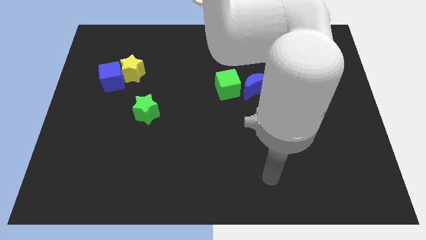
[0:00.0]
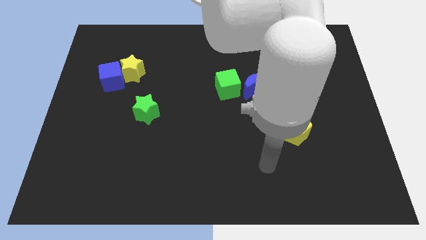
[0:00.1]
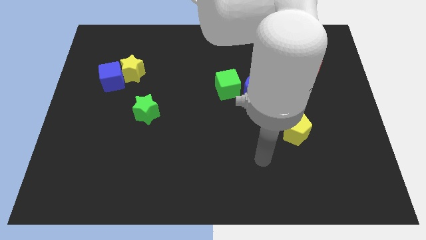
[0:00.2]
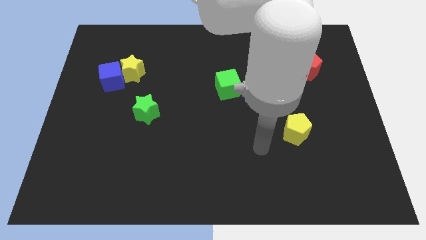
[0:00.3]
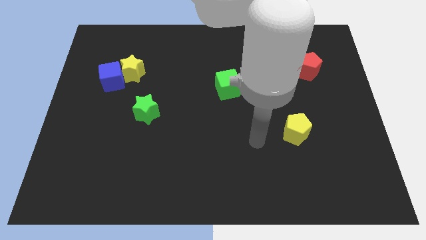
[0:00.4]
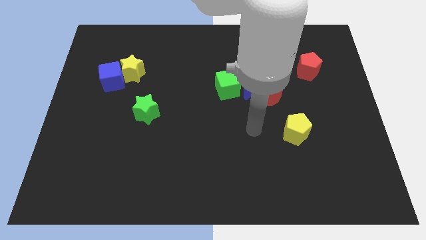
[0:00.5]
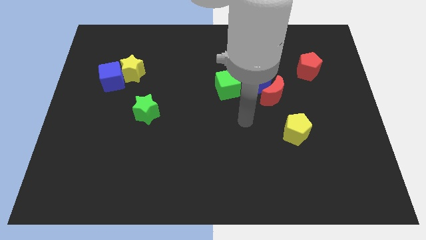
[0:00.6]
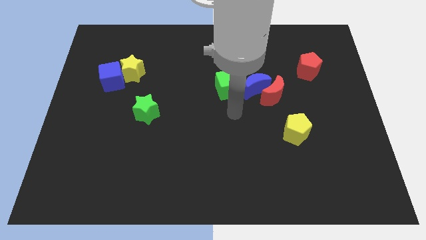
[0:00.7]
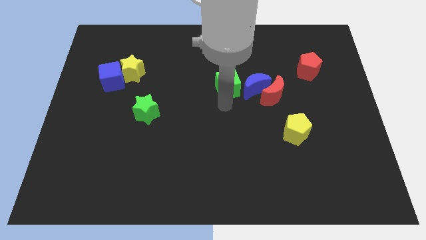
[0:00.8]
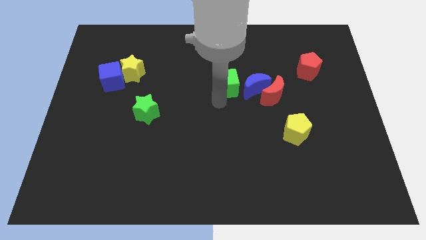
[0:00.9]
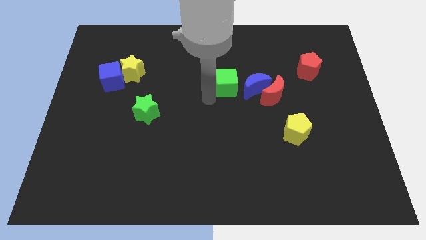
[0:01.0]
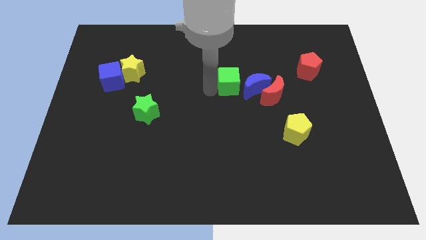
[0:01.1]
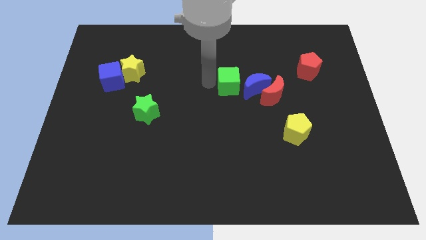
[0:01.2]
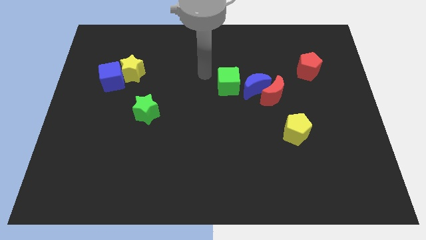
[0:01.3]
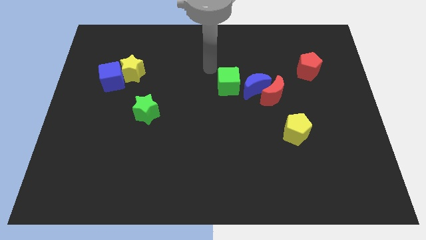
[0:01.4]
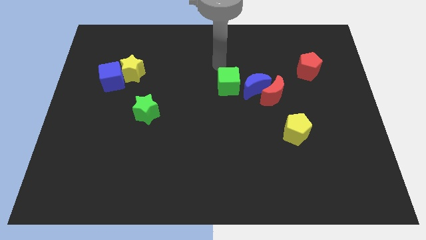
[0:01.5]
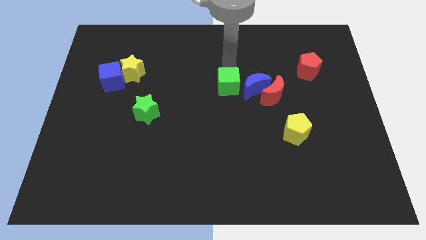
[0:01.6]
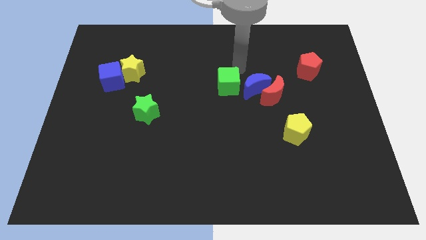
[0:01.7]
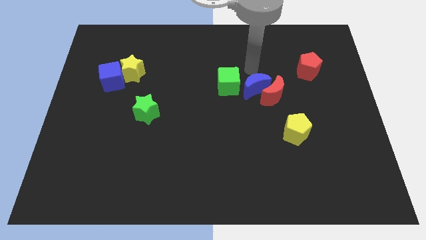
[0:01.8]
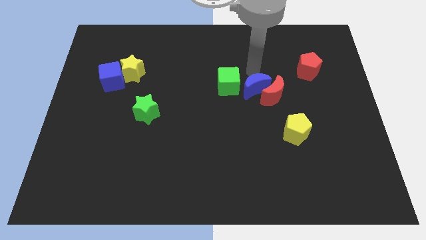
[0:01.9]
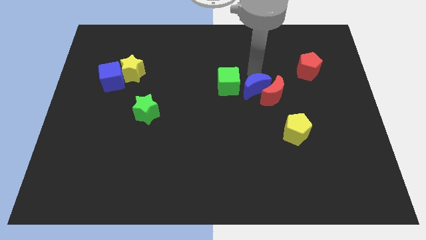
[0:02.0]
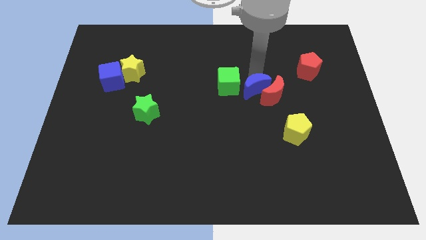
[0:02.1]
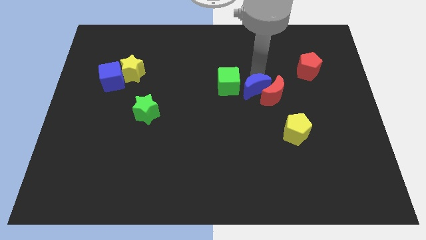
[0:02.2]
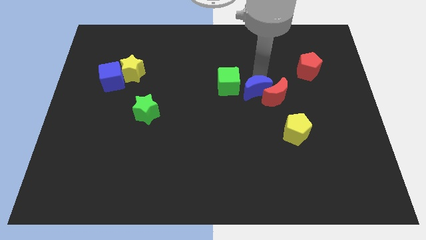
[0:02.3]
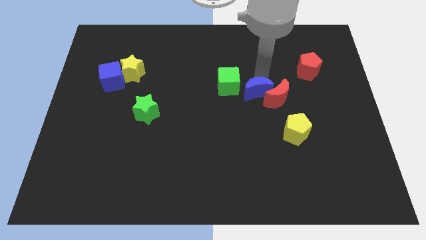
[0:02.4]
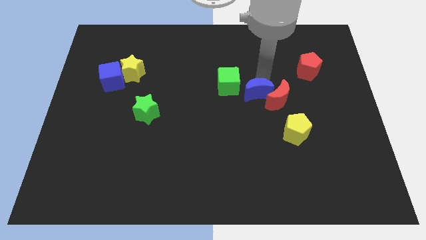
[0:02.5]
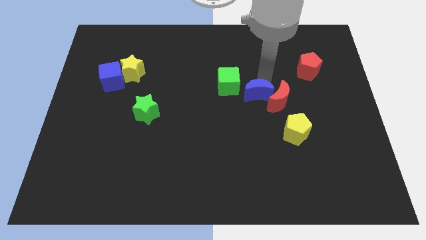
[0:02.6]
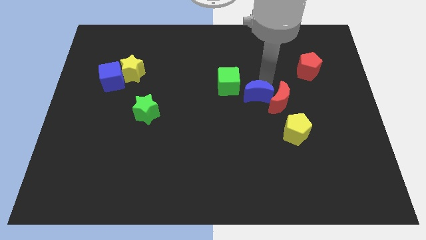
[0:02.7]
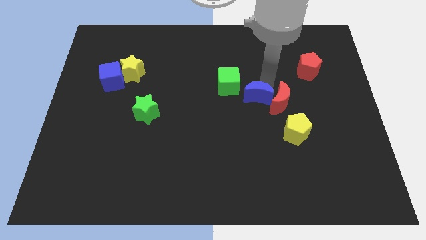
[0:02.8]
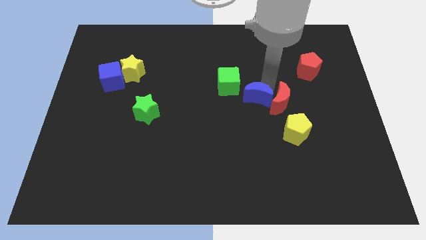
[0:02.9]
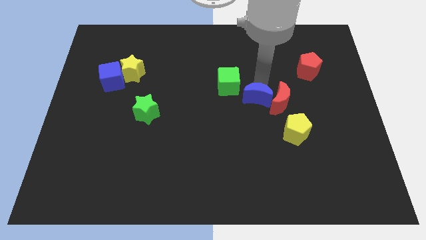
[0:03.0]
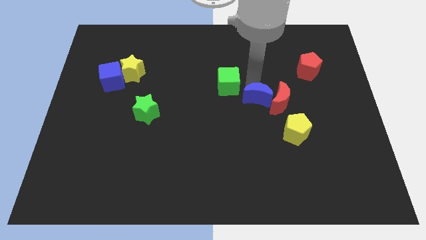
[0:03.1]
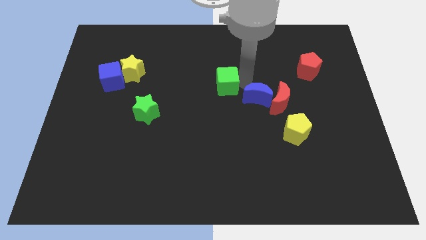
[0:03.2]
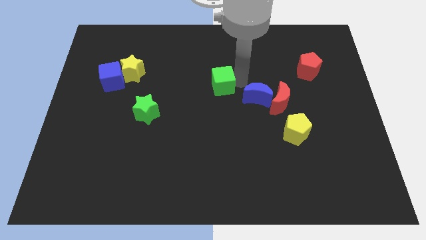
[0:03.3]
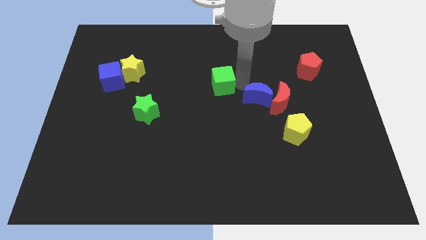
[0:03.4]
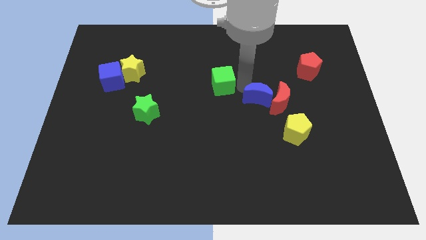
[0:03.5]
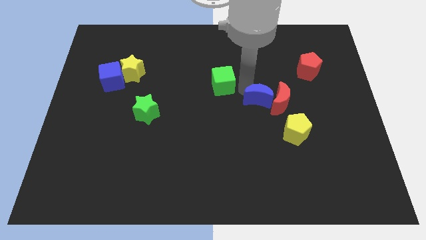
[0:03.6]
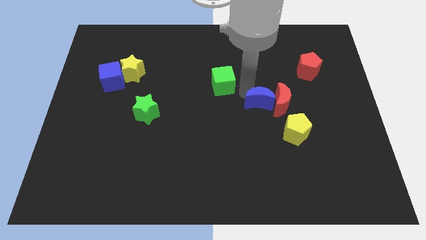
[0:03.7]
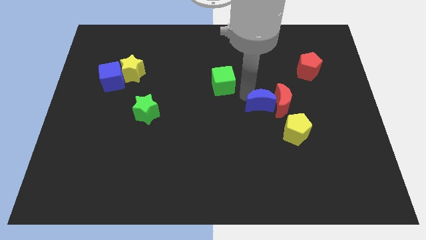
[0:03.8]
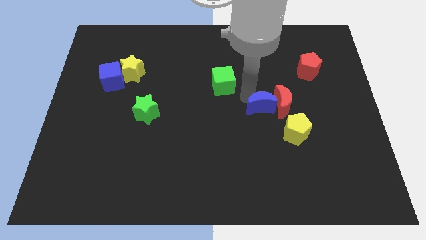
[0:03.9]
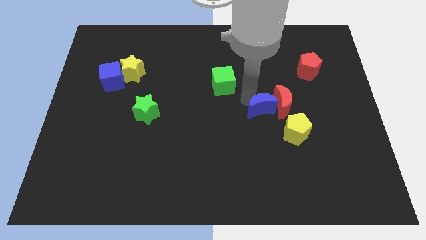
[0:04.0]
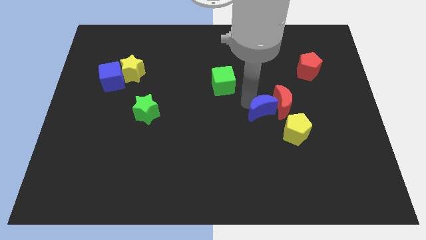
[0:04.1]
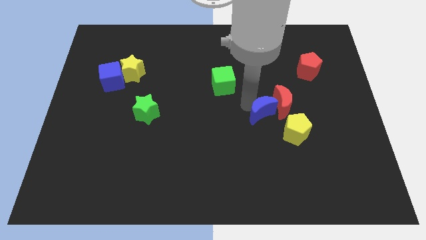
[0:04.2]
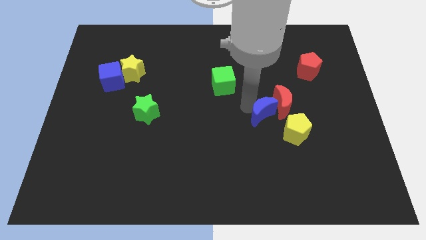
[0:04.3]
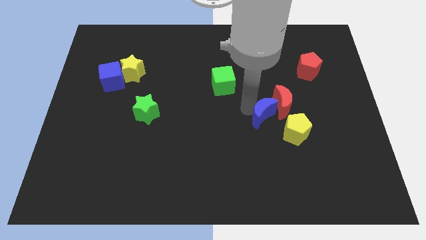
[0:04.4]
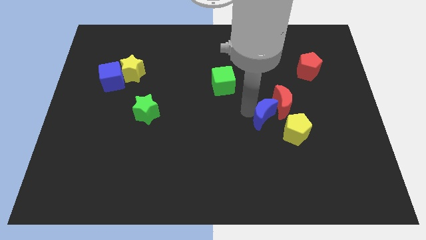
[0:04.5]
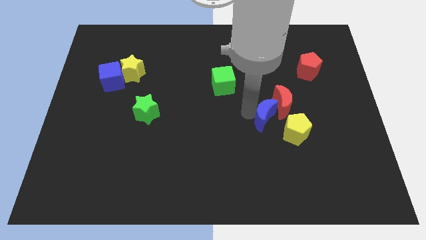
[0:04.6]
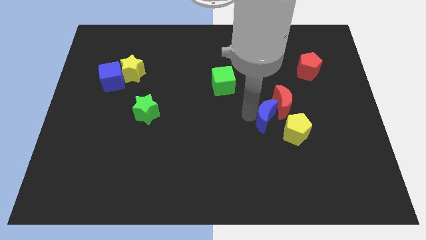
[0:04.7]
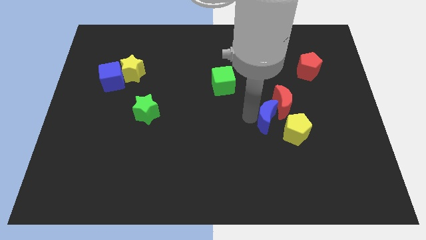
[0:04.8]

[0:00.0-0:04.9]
push the blue moon a little bit downwards and then right

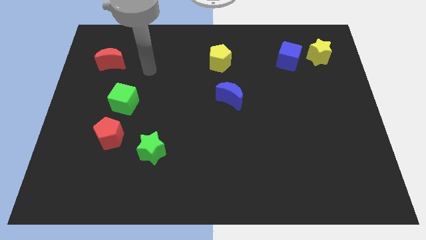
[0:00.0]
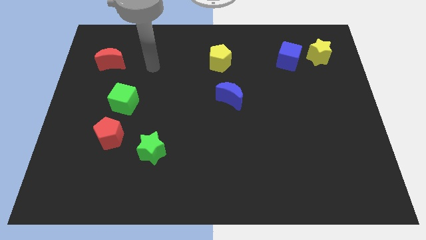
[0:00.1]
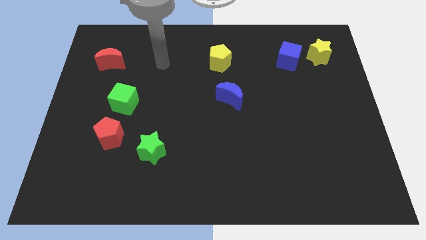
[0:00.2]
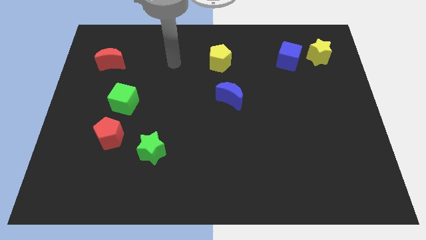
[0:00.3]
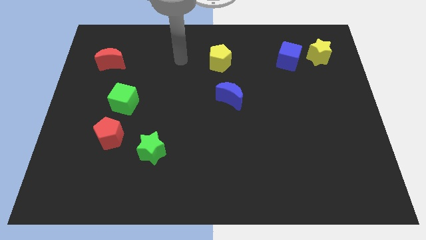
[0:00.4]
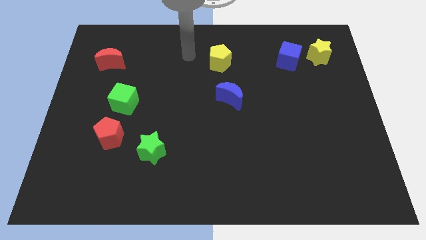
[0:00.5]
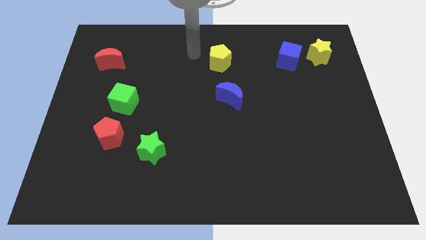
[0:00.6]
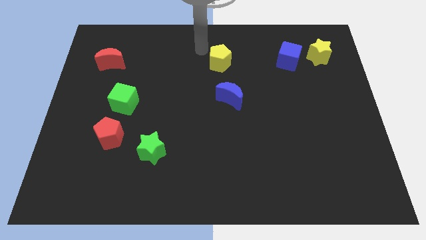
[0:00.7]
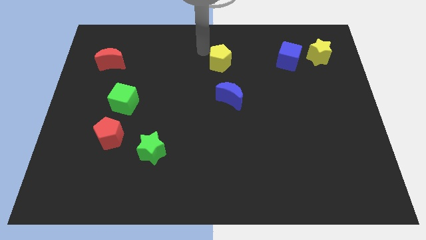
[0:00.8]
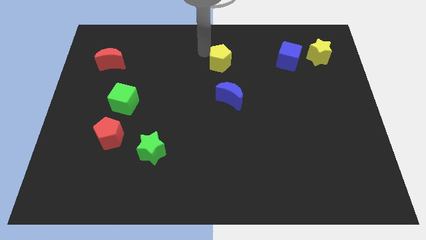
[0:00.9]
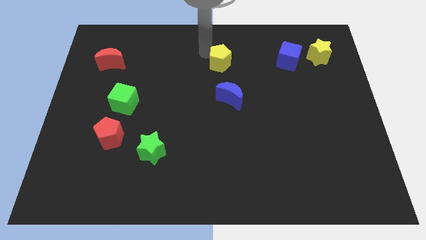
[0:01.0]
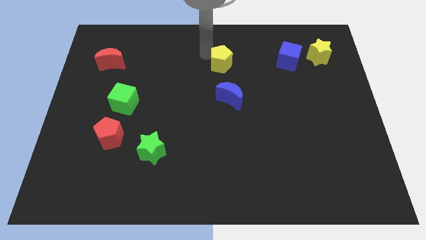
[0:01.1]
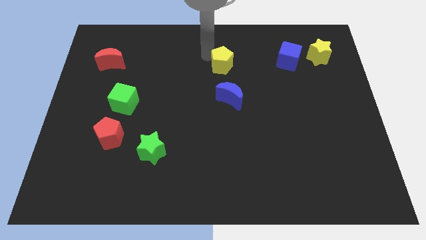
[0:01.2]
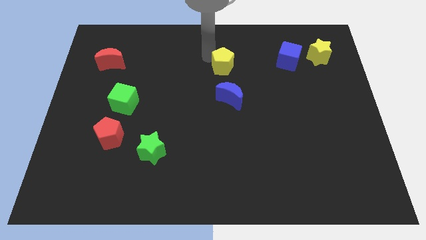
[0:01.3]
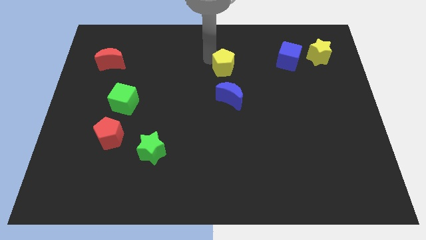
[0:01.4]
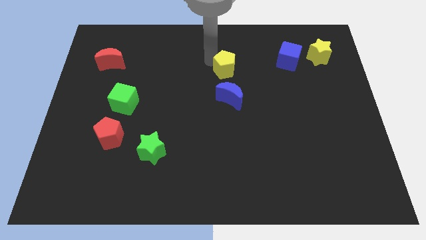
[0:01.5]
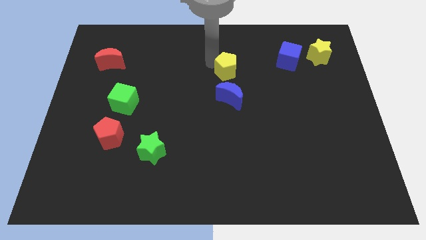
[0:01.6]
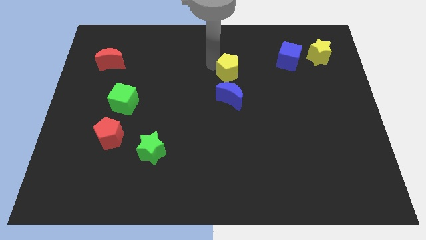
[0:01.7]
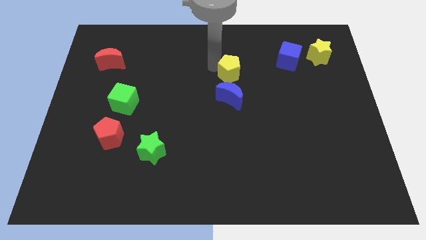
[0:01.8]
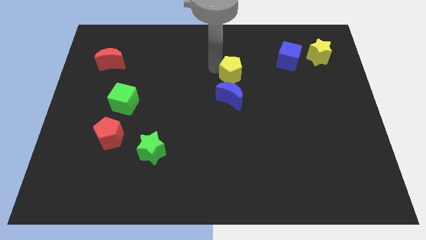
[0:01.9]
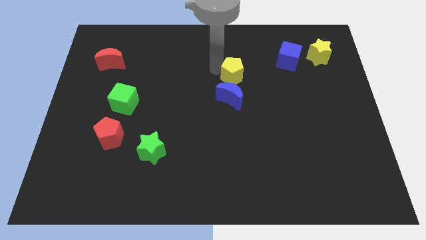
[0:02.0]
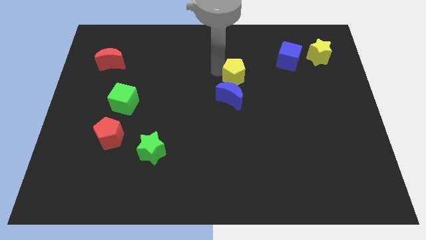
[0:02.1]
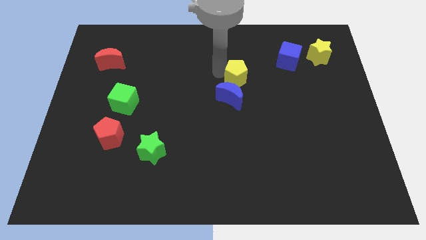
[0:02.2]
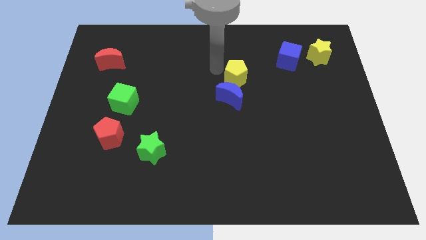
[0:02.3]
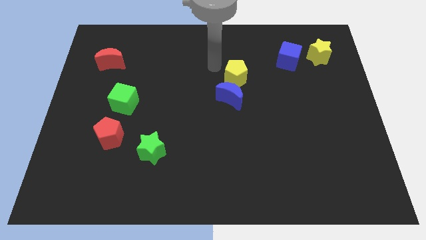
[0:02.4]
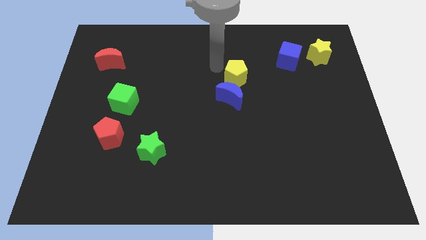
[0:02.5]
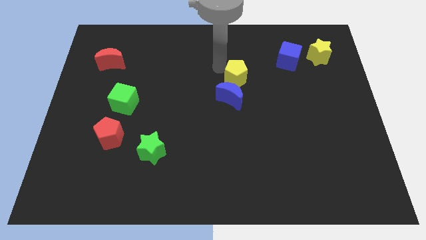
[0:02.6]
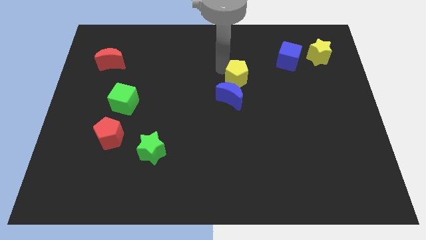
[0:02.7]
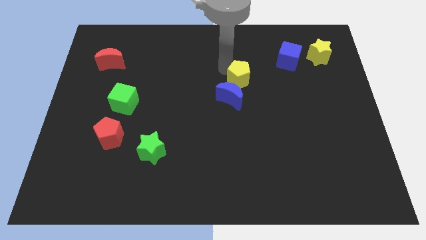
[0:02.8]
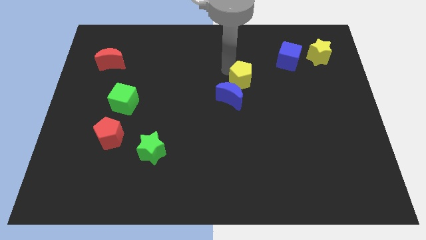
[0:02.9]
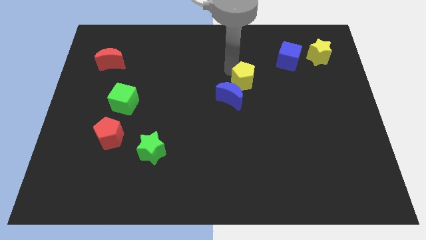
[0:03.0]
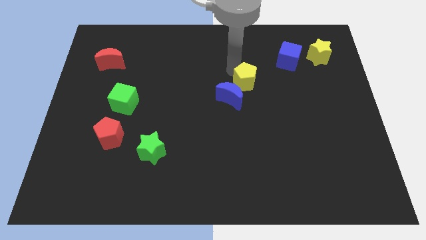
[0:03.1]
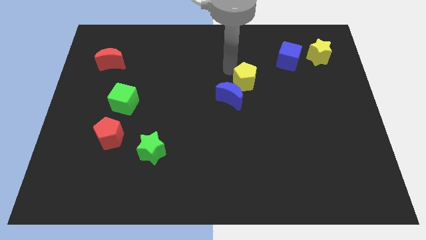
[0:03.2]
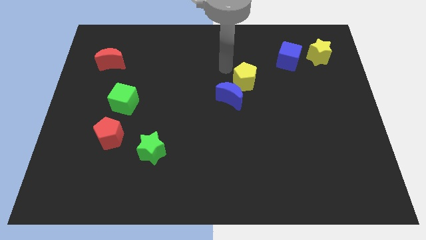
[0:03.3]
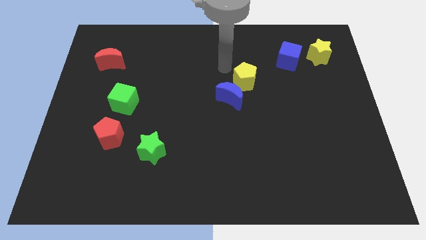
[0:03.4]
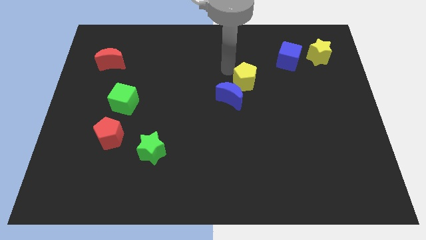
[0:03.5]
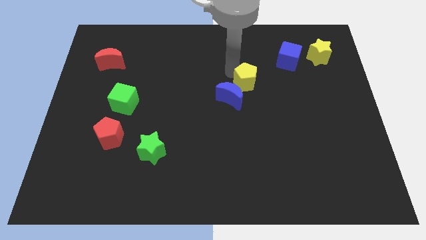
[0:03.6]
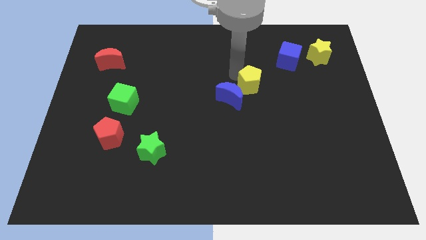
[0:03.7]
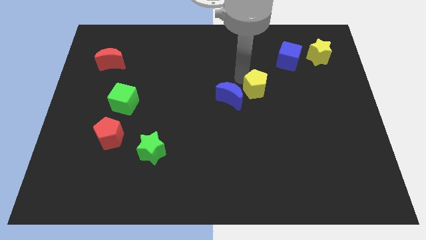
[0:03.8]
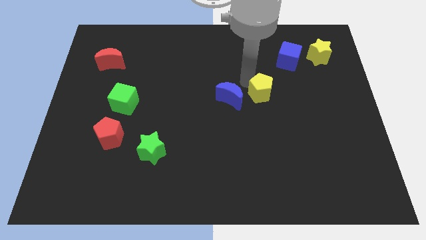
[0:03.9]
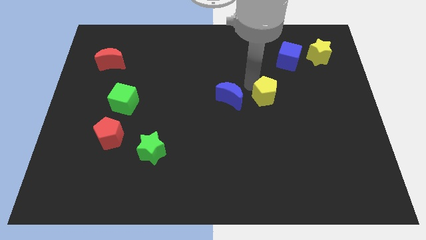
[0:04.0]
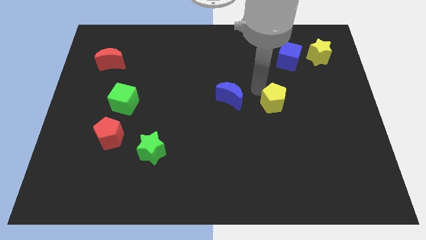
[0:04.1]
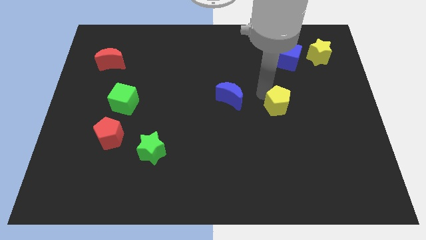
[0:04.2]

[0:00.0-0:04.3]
slide the yellow pentagon downwards and to the right diagonally
